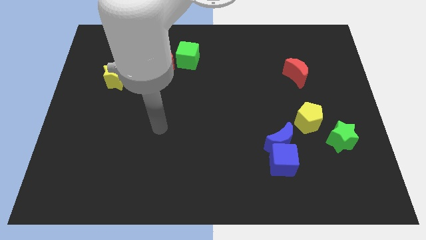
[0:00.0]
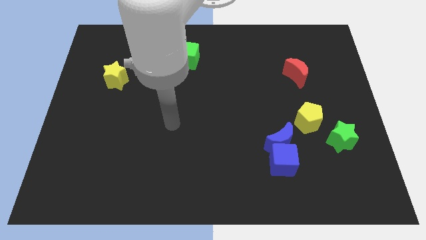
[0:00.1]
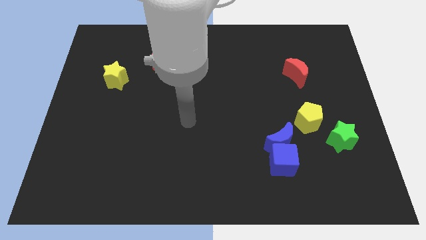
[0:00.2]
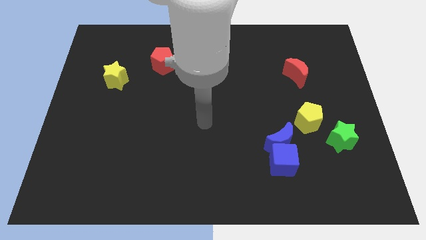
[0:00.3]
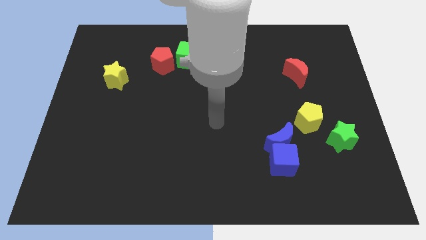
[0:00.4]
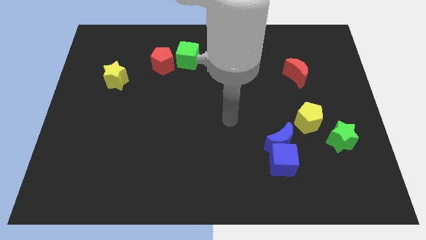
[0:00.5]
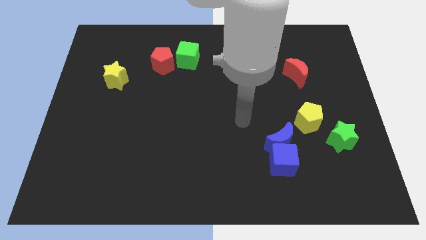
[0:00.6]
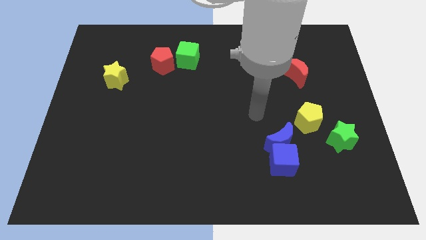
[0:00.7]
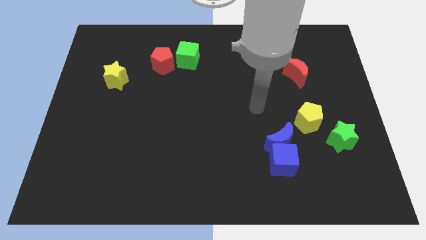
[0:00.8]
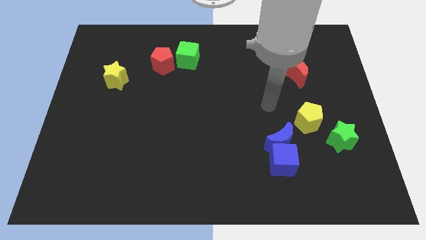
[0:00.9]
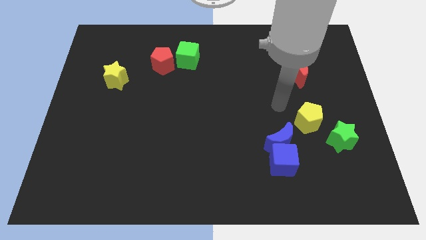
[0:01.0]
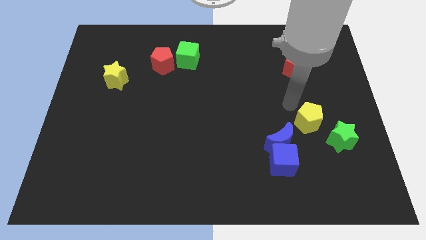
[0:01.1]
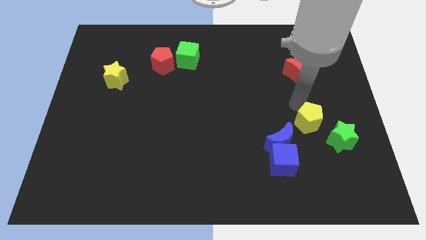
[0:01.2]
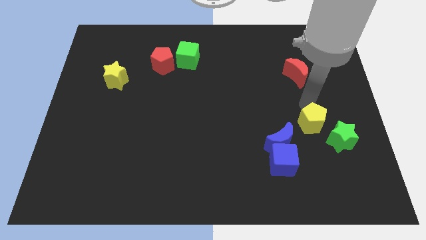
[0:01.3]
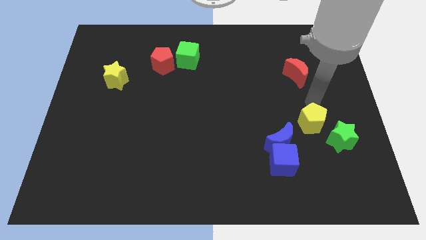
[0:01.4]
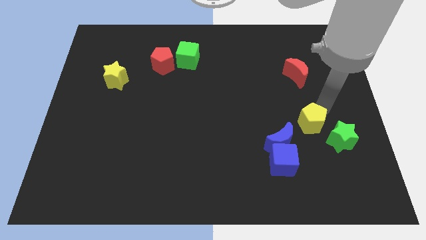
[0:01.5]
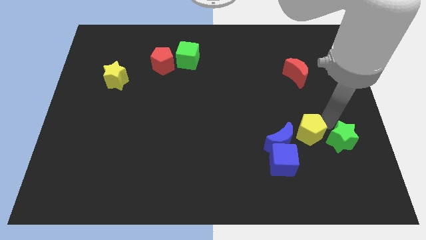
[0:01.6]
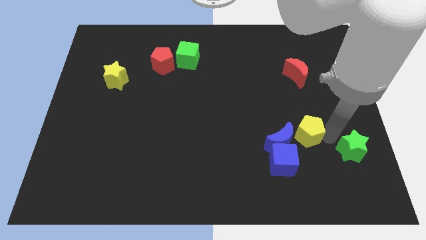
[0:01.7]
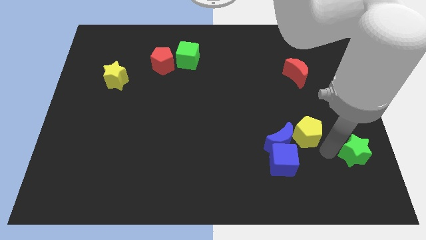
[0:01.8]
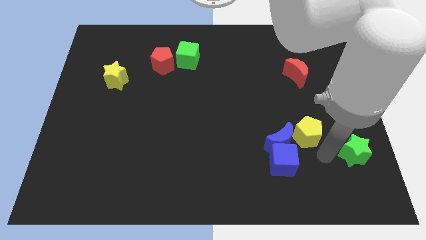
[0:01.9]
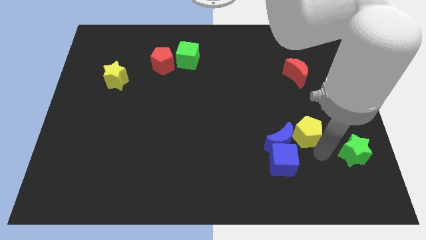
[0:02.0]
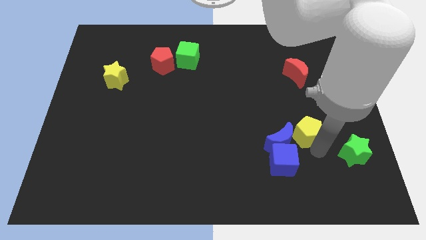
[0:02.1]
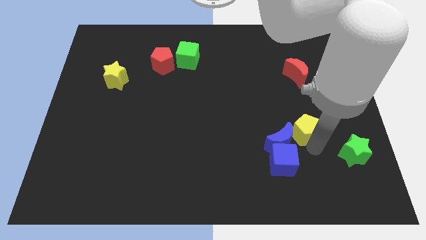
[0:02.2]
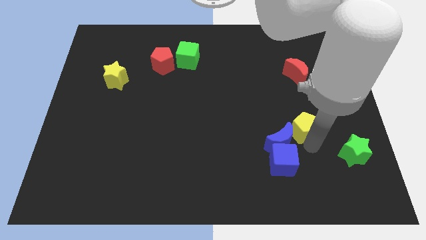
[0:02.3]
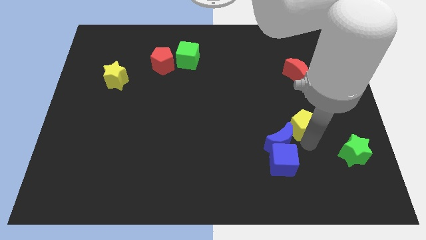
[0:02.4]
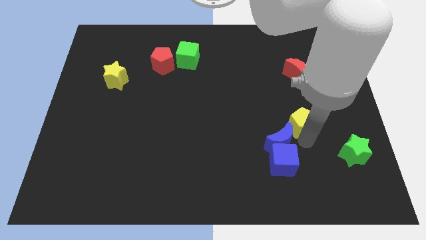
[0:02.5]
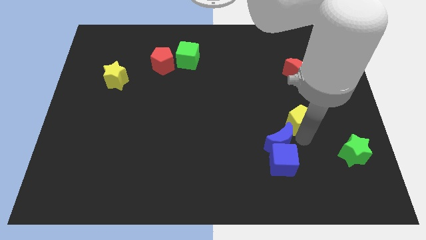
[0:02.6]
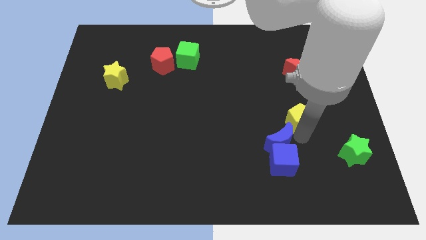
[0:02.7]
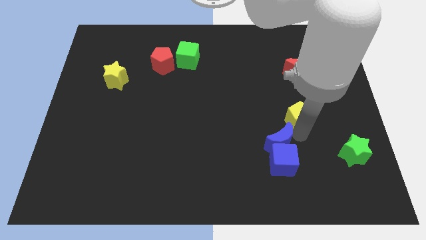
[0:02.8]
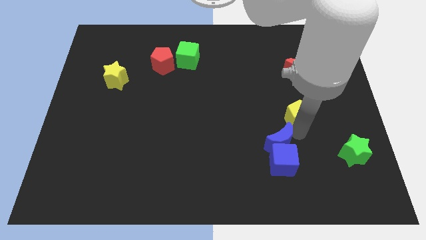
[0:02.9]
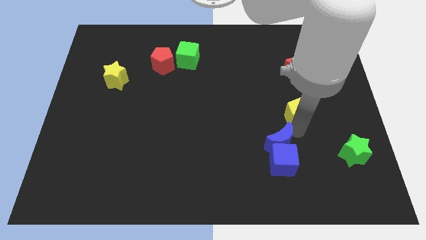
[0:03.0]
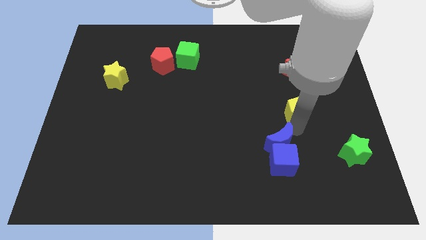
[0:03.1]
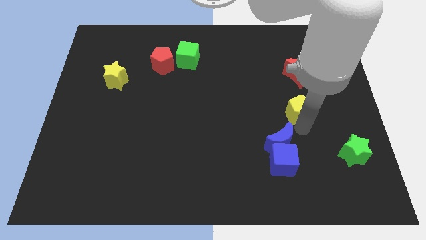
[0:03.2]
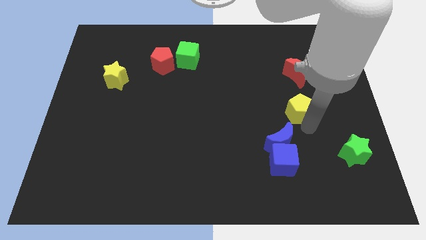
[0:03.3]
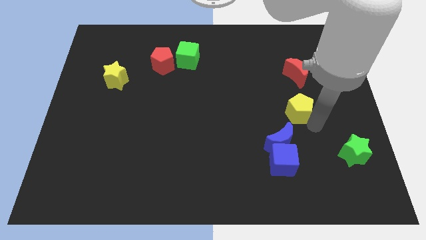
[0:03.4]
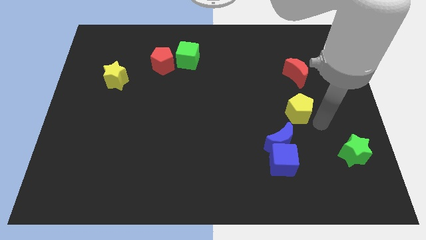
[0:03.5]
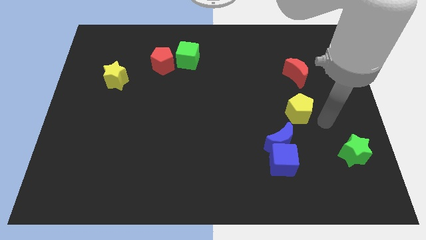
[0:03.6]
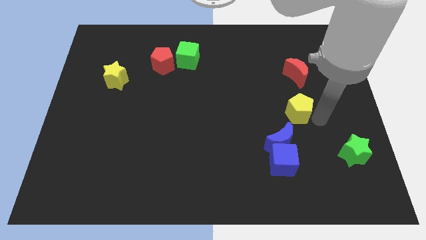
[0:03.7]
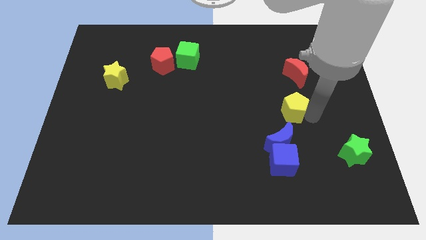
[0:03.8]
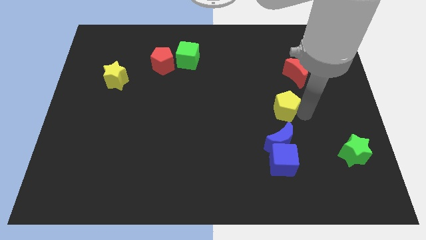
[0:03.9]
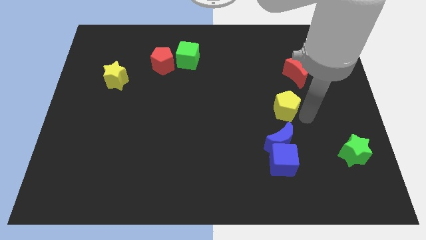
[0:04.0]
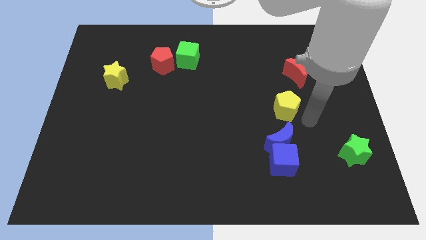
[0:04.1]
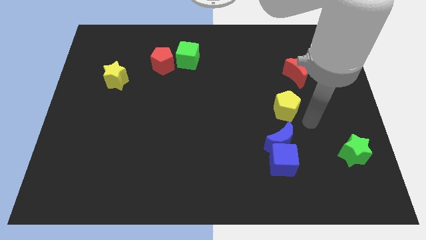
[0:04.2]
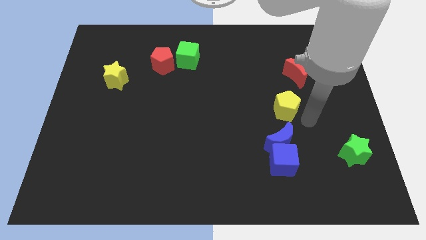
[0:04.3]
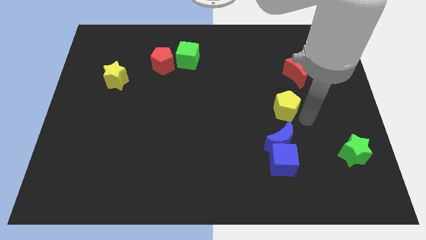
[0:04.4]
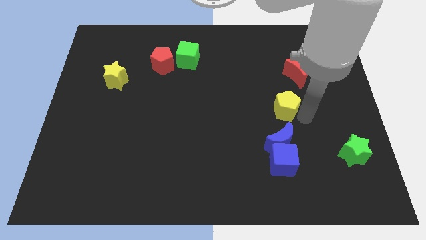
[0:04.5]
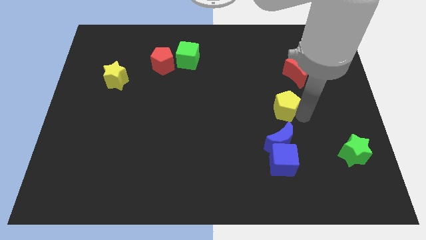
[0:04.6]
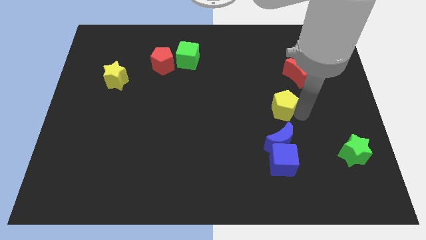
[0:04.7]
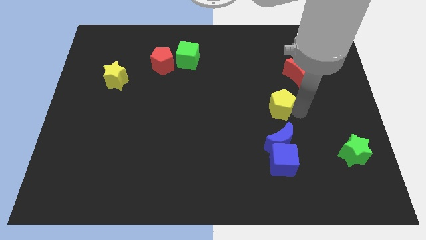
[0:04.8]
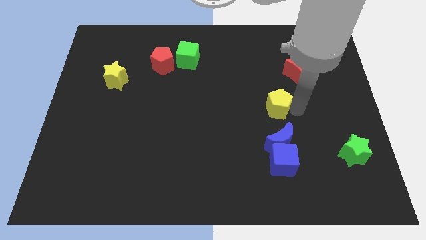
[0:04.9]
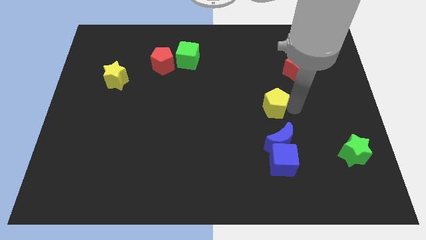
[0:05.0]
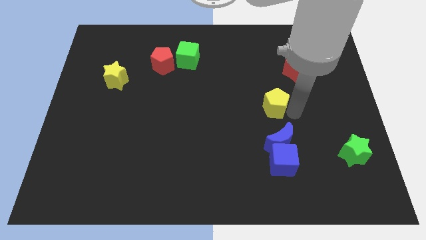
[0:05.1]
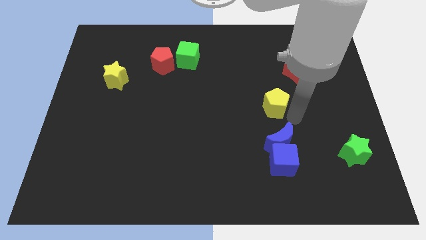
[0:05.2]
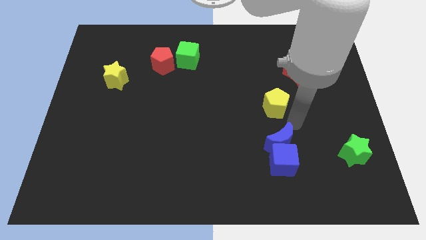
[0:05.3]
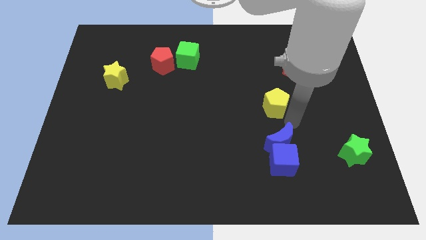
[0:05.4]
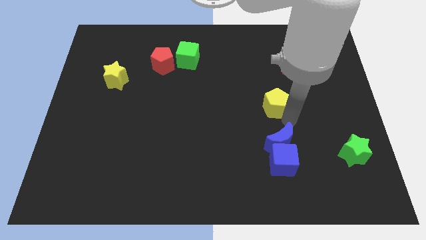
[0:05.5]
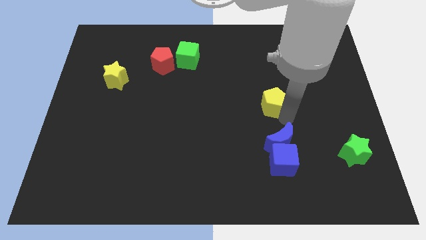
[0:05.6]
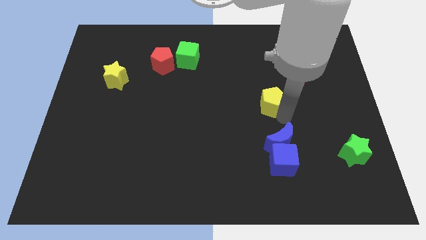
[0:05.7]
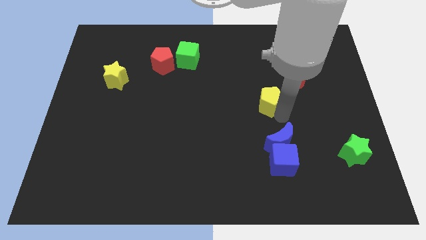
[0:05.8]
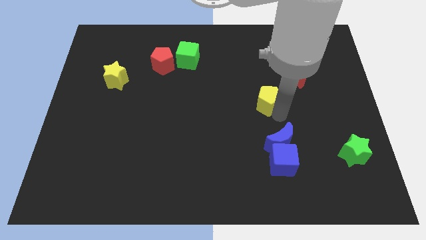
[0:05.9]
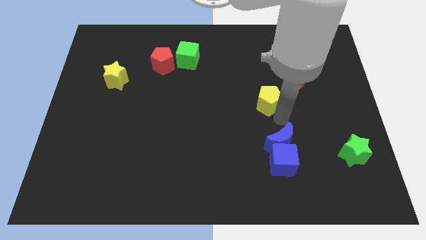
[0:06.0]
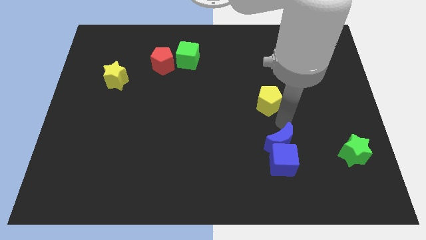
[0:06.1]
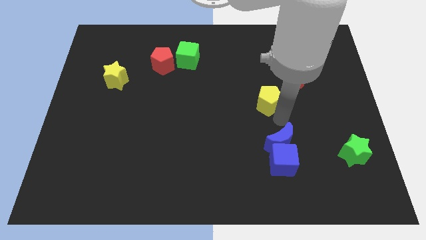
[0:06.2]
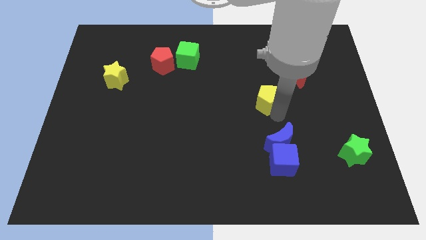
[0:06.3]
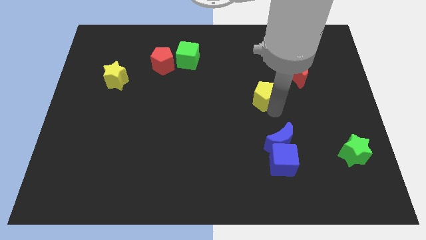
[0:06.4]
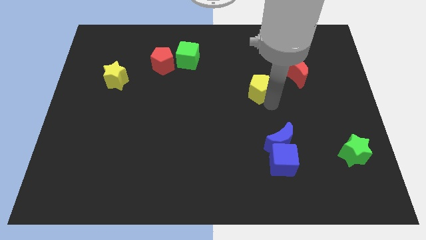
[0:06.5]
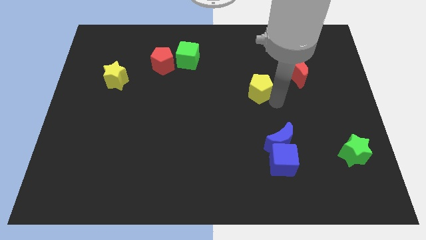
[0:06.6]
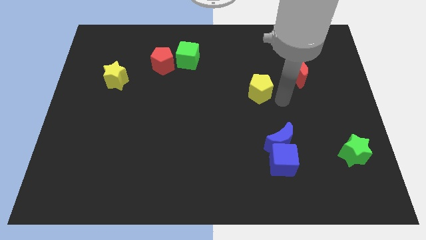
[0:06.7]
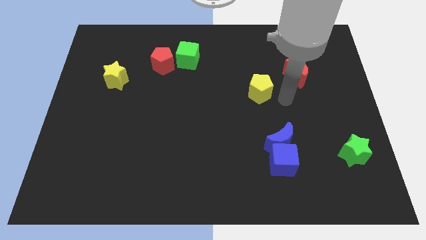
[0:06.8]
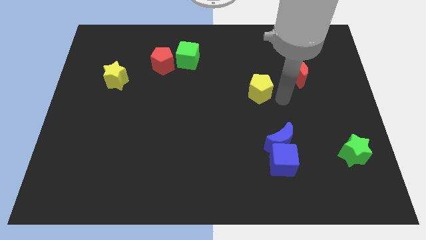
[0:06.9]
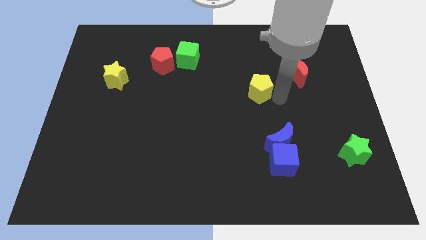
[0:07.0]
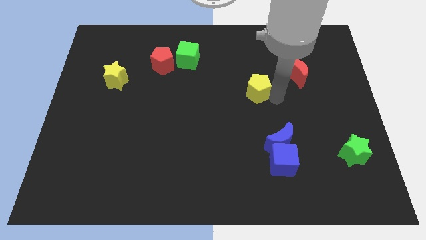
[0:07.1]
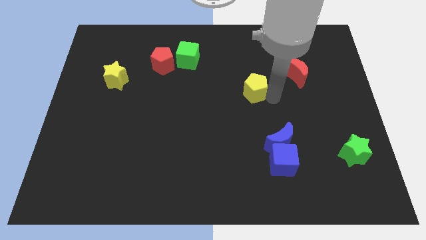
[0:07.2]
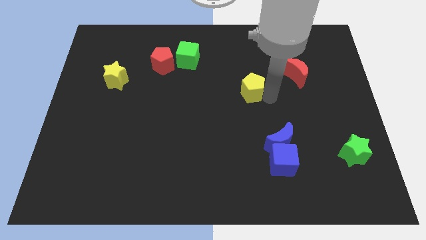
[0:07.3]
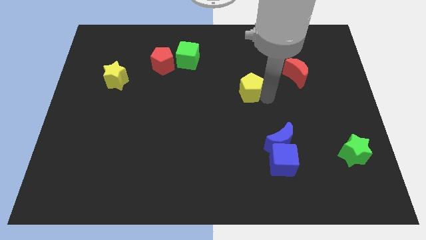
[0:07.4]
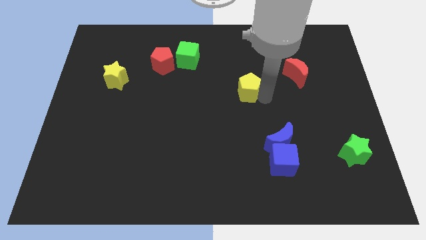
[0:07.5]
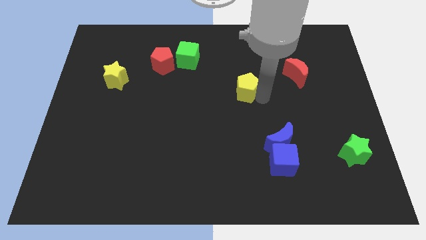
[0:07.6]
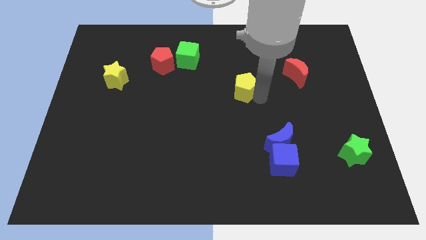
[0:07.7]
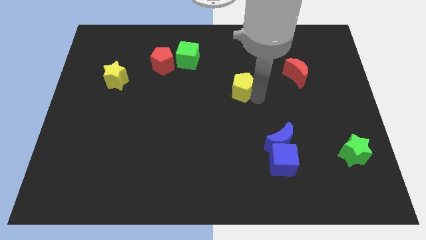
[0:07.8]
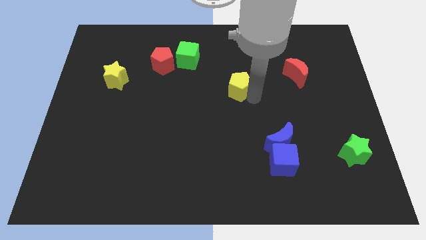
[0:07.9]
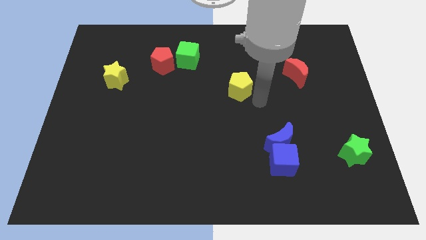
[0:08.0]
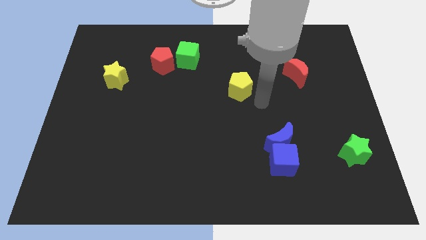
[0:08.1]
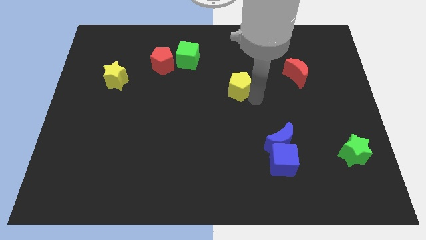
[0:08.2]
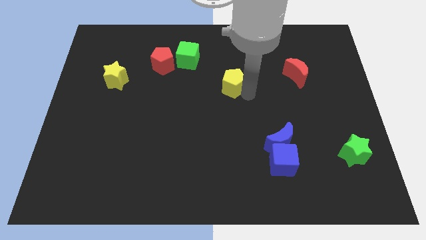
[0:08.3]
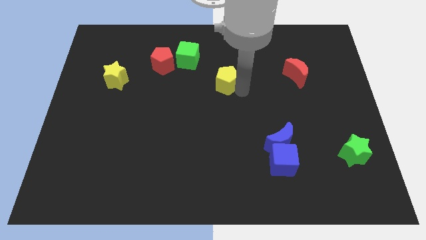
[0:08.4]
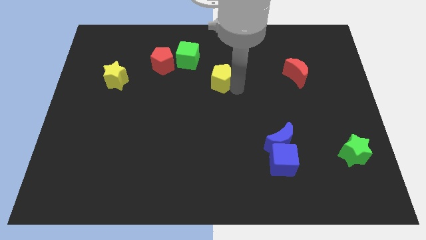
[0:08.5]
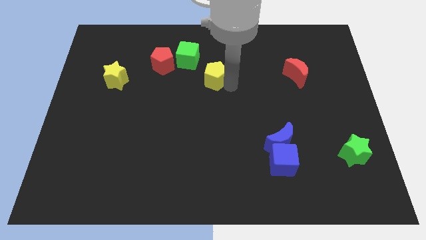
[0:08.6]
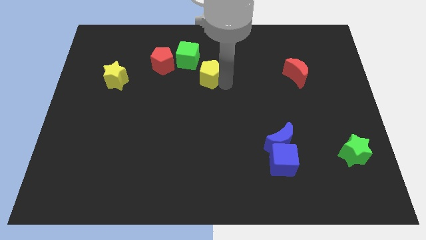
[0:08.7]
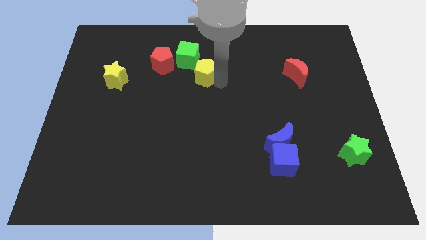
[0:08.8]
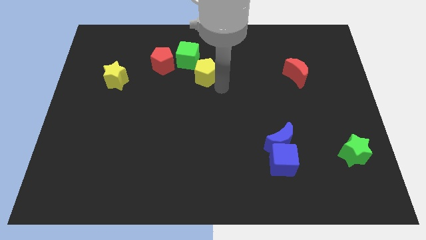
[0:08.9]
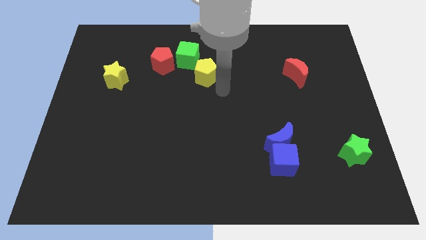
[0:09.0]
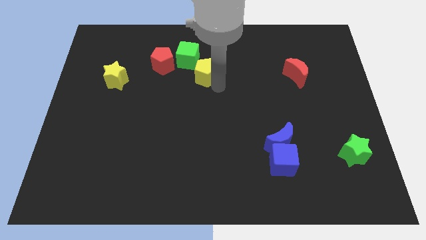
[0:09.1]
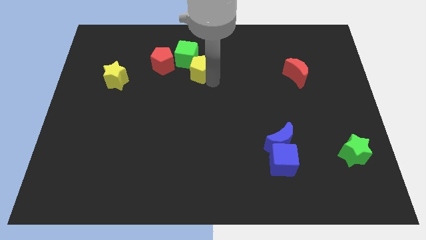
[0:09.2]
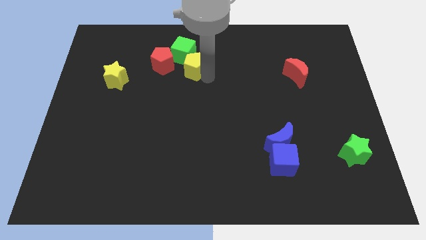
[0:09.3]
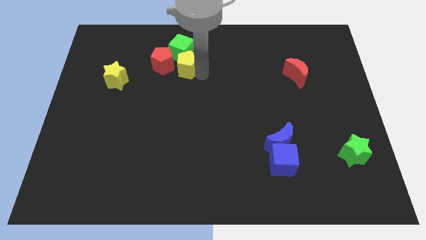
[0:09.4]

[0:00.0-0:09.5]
put the yellow pentagon towards the green cube
